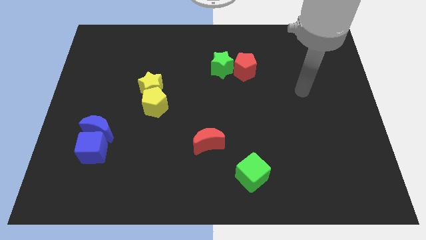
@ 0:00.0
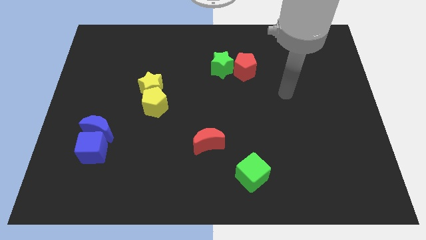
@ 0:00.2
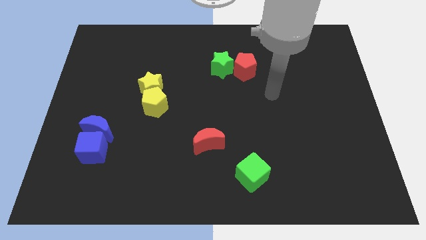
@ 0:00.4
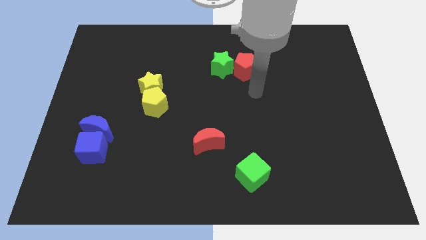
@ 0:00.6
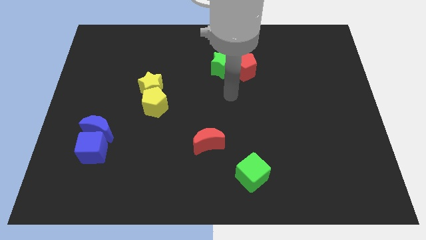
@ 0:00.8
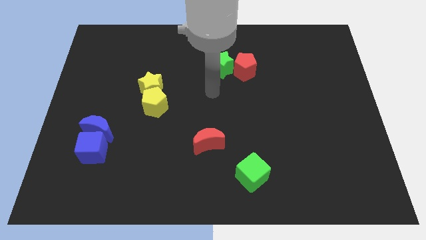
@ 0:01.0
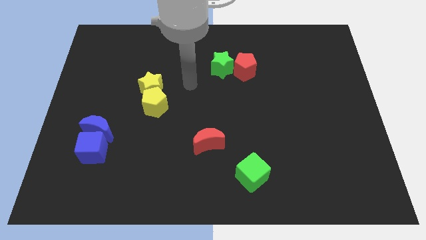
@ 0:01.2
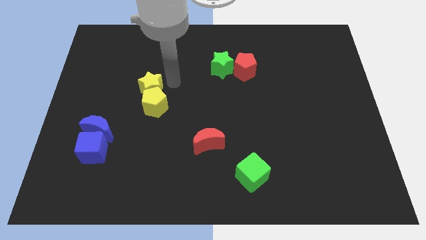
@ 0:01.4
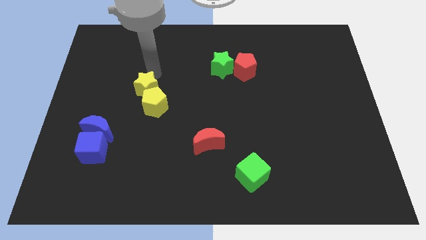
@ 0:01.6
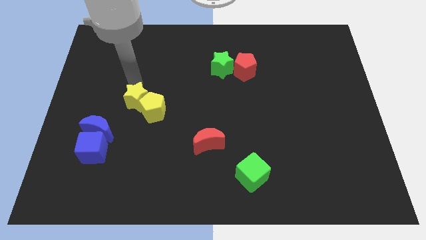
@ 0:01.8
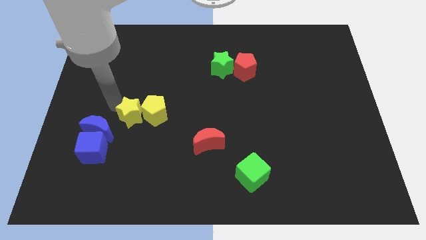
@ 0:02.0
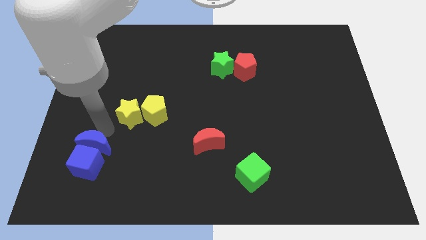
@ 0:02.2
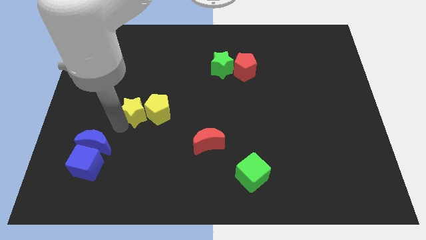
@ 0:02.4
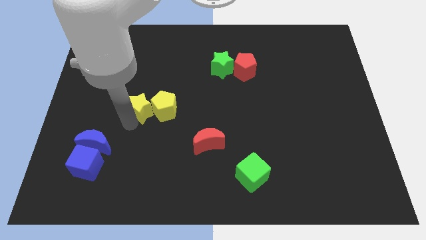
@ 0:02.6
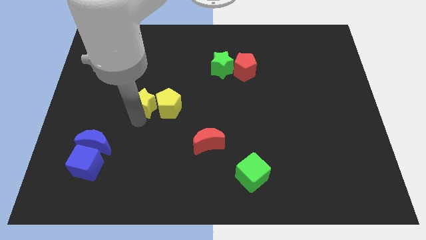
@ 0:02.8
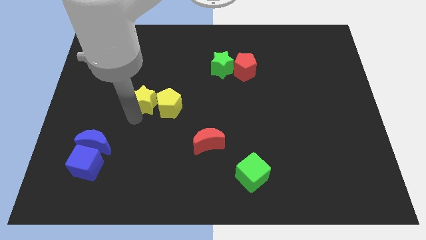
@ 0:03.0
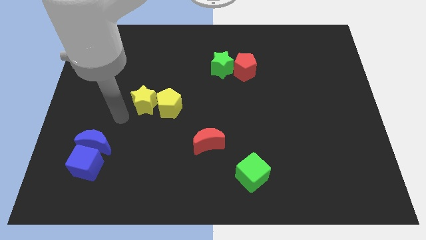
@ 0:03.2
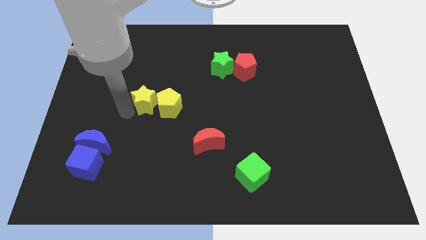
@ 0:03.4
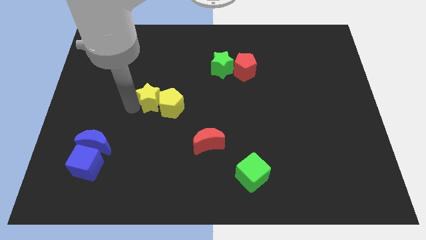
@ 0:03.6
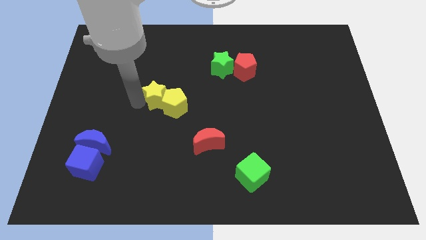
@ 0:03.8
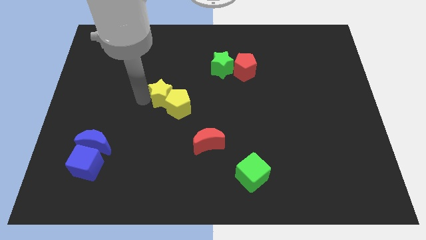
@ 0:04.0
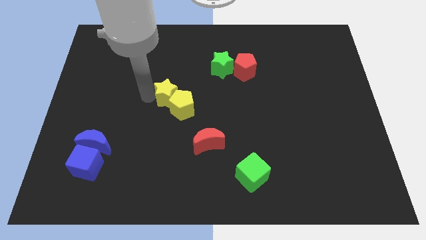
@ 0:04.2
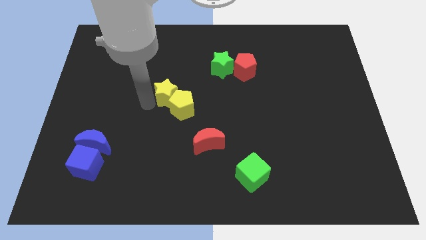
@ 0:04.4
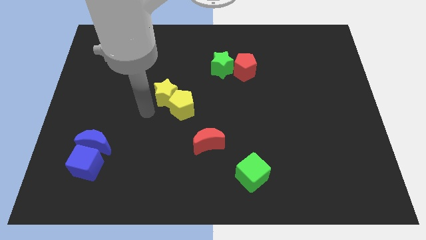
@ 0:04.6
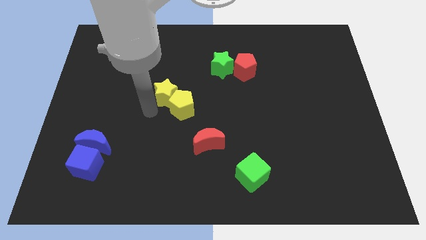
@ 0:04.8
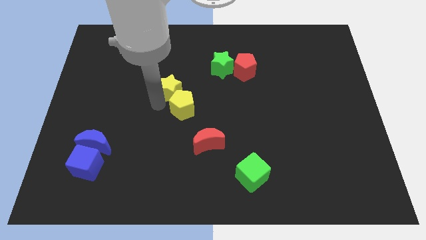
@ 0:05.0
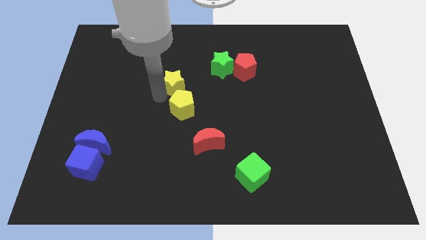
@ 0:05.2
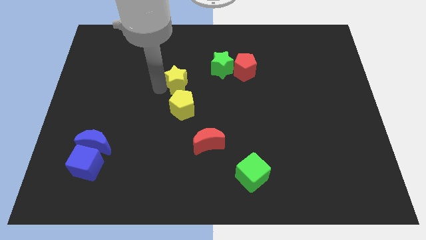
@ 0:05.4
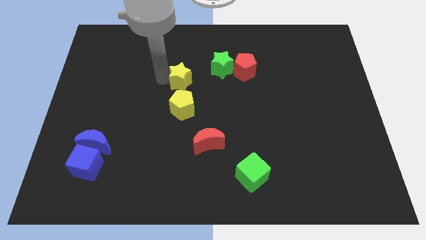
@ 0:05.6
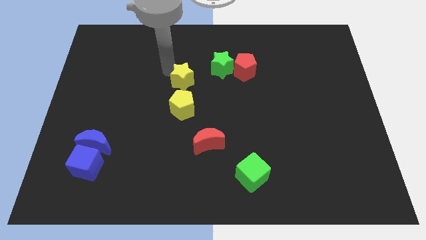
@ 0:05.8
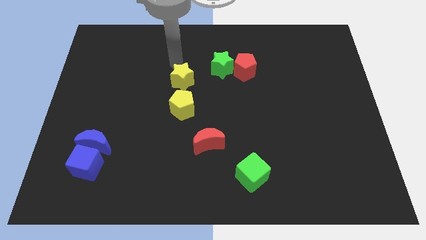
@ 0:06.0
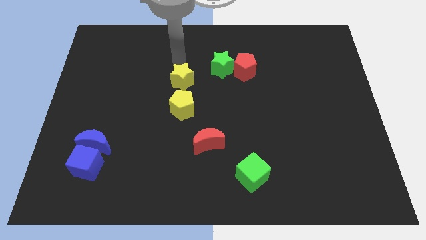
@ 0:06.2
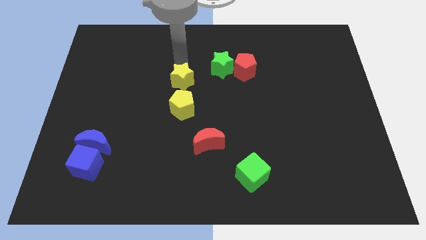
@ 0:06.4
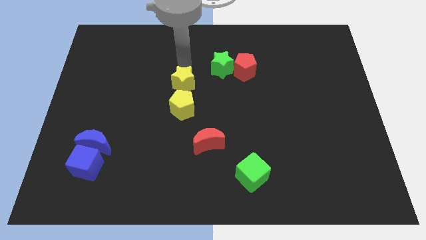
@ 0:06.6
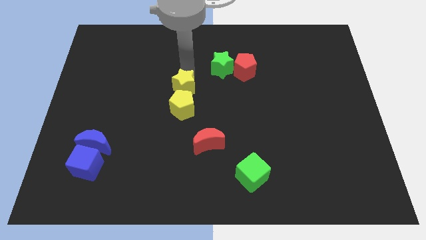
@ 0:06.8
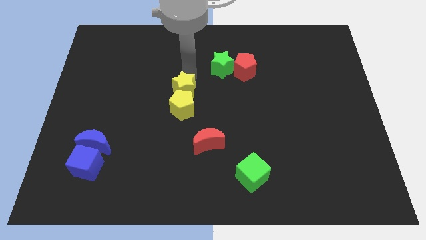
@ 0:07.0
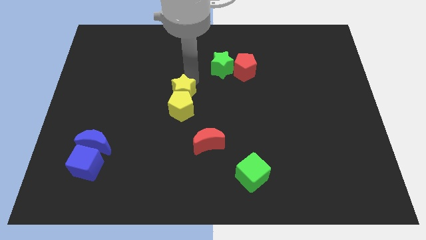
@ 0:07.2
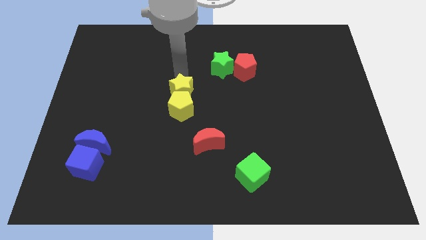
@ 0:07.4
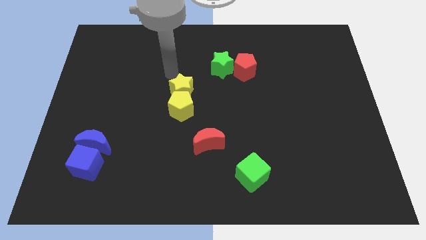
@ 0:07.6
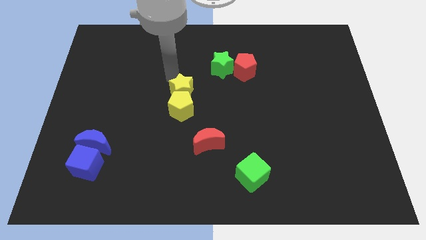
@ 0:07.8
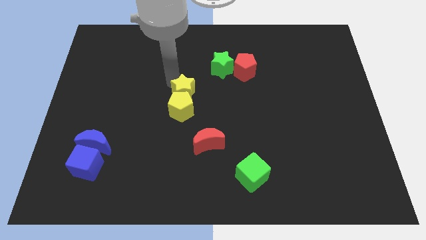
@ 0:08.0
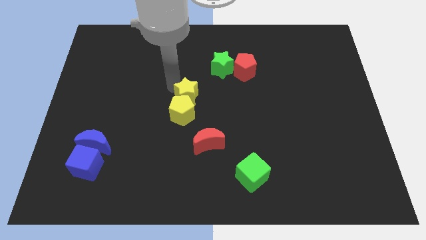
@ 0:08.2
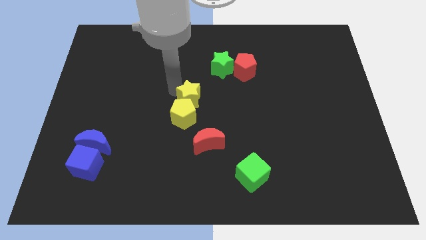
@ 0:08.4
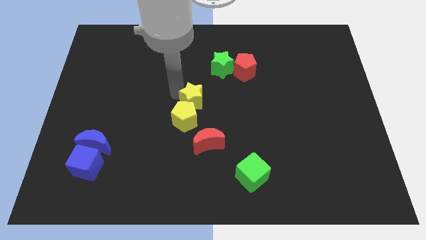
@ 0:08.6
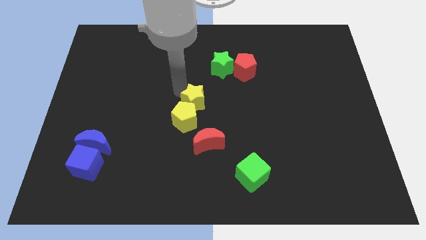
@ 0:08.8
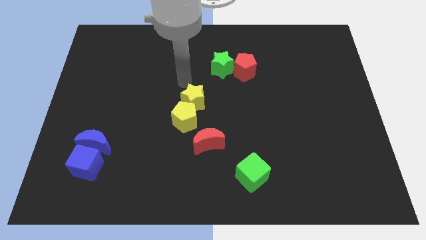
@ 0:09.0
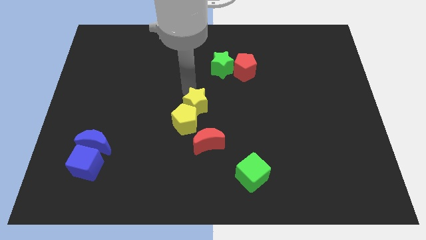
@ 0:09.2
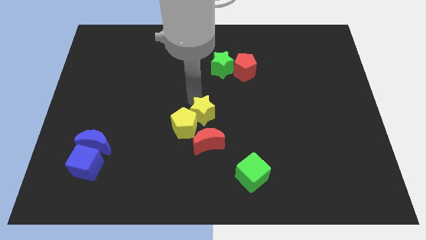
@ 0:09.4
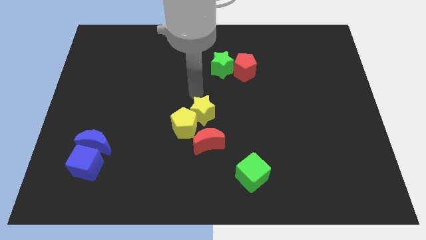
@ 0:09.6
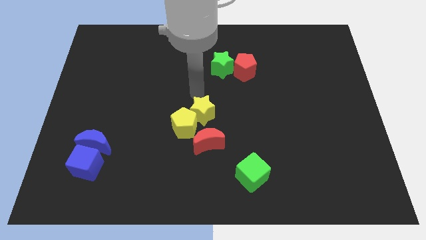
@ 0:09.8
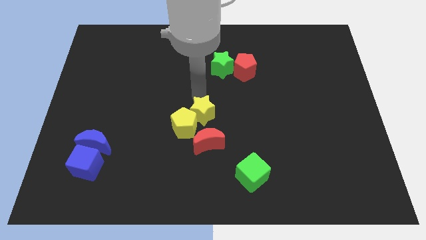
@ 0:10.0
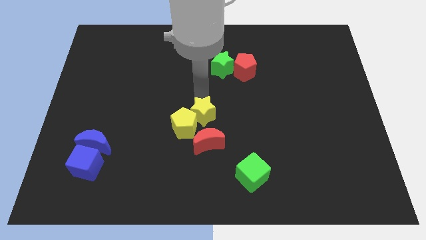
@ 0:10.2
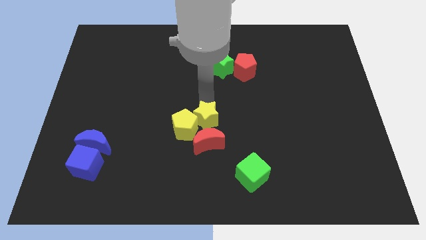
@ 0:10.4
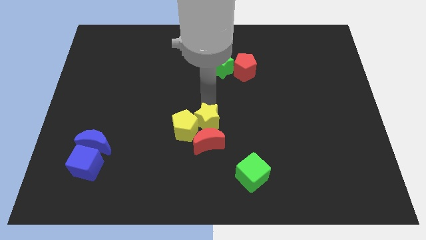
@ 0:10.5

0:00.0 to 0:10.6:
push the yellow star next to the red moon

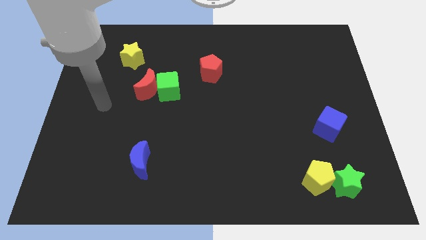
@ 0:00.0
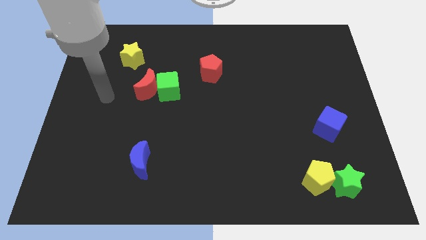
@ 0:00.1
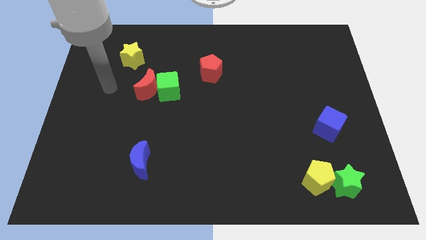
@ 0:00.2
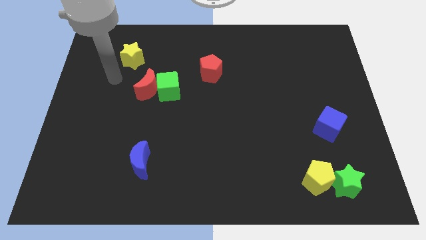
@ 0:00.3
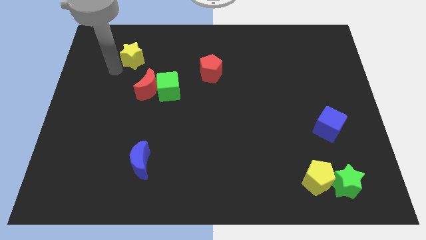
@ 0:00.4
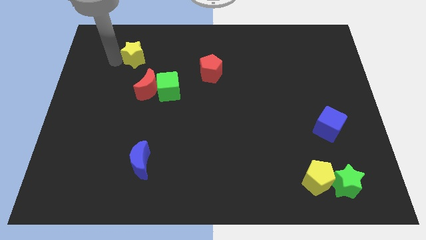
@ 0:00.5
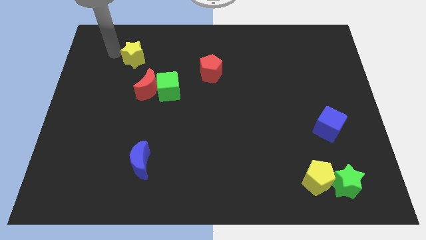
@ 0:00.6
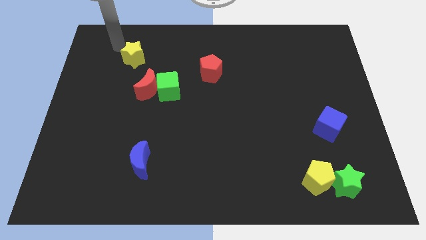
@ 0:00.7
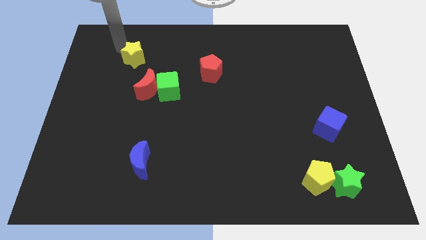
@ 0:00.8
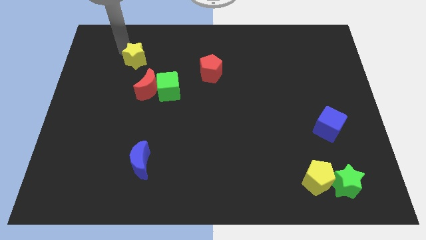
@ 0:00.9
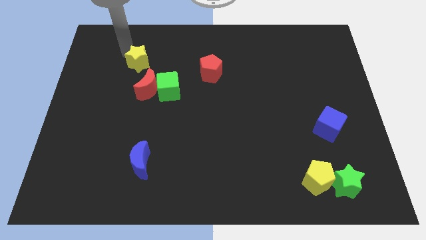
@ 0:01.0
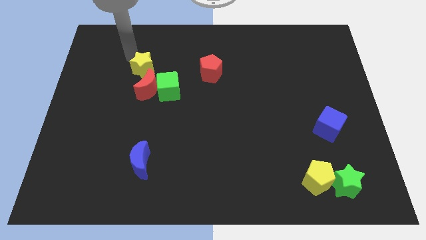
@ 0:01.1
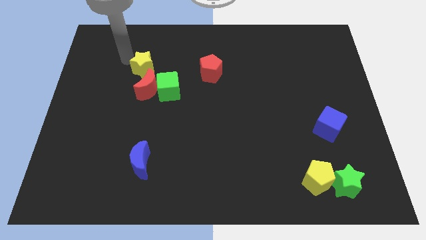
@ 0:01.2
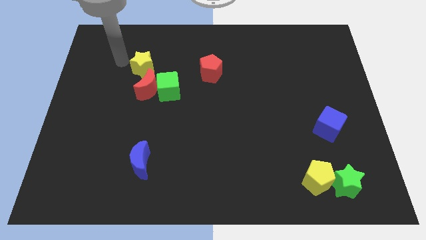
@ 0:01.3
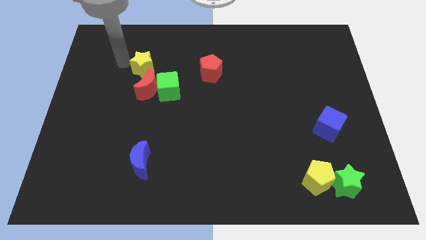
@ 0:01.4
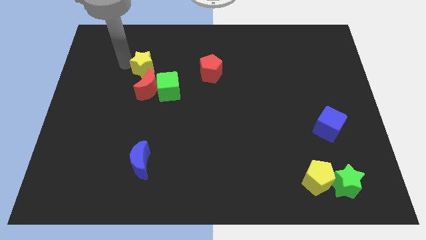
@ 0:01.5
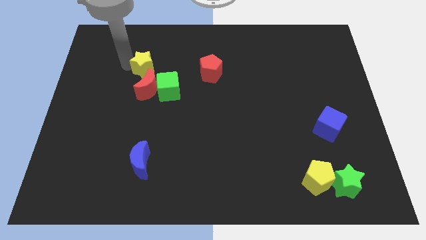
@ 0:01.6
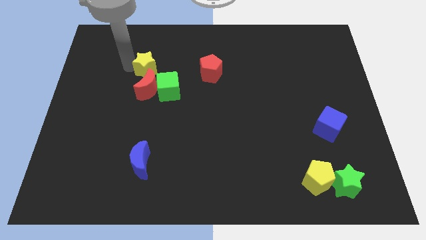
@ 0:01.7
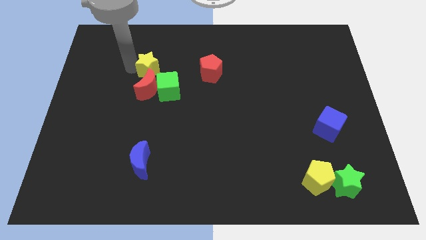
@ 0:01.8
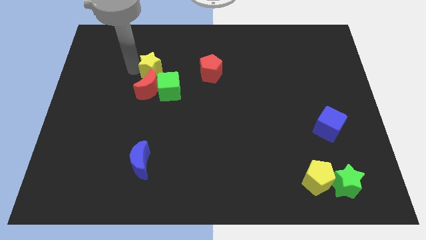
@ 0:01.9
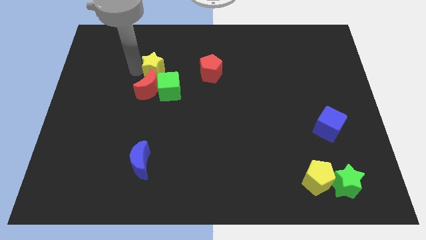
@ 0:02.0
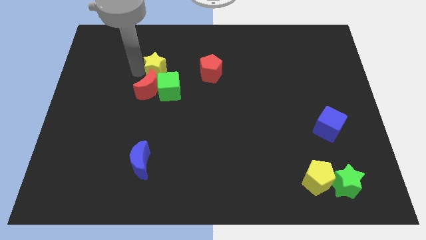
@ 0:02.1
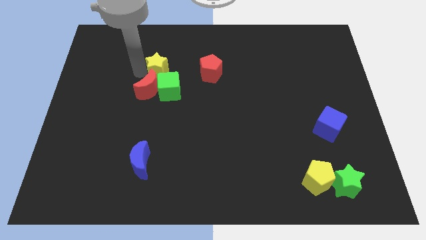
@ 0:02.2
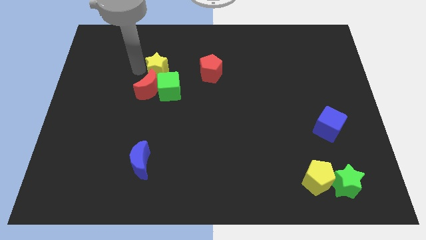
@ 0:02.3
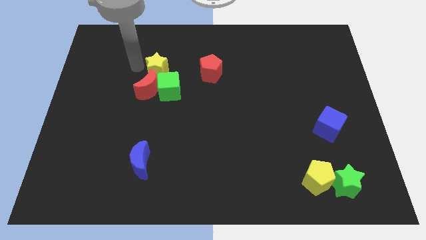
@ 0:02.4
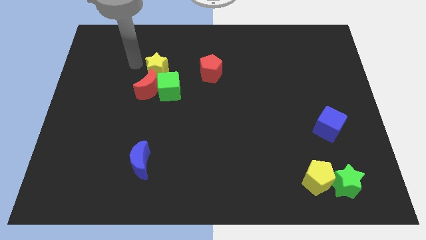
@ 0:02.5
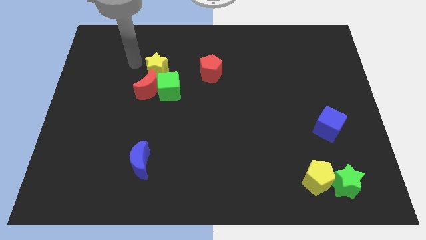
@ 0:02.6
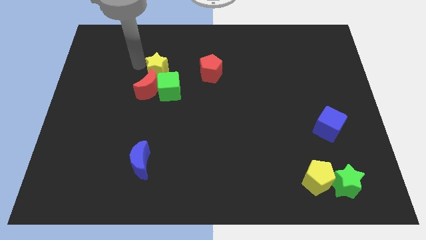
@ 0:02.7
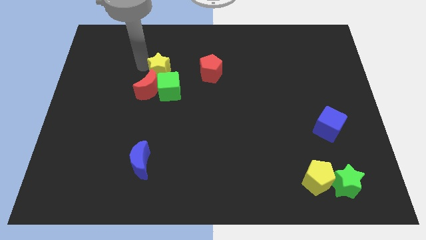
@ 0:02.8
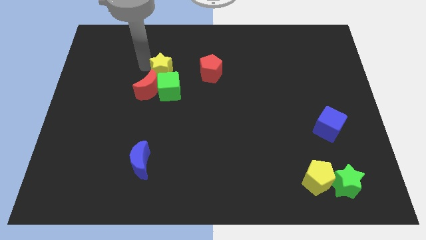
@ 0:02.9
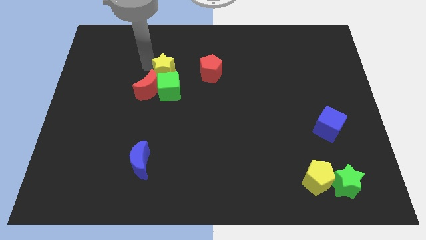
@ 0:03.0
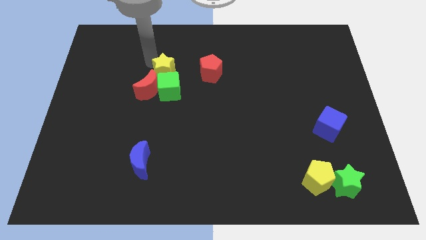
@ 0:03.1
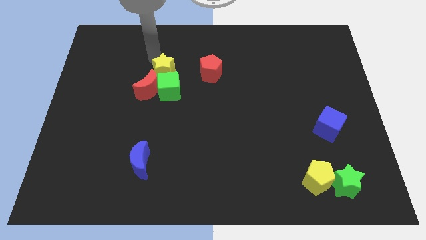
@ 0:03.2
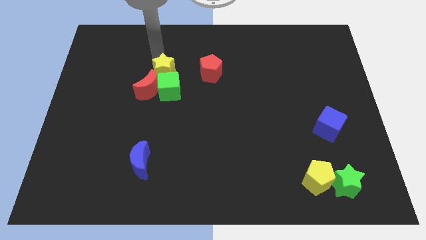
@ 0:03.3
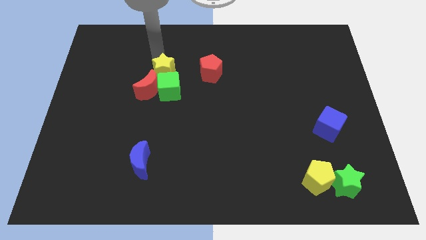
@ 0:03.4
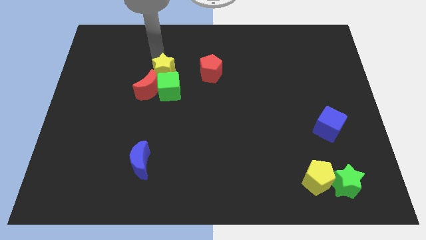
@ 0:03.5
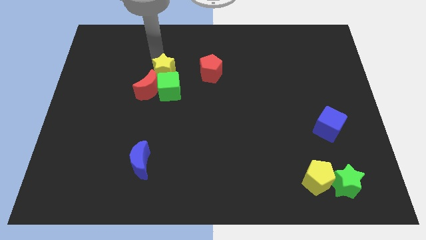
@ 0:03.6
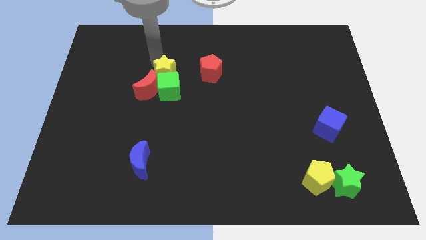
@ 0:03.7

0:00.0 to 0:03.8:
push the yellow star towards the green cube
